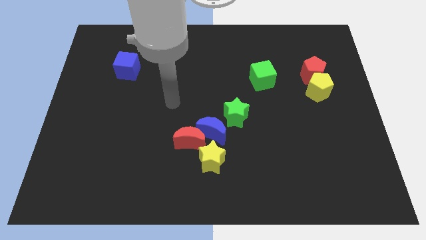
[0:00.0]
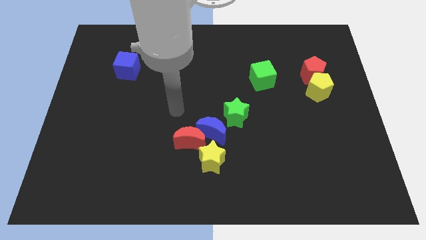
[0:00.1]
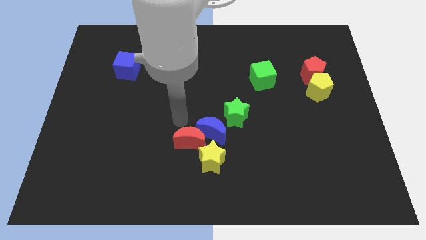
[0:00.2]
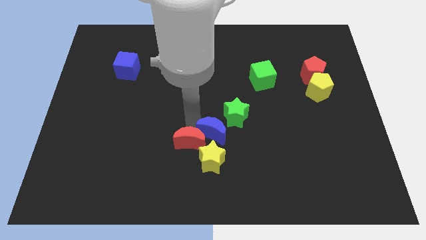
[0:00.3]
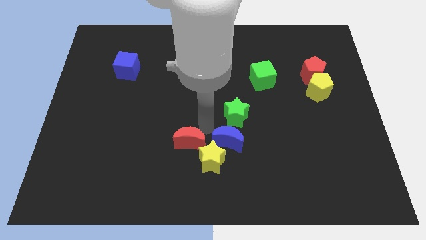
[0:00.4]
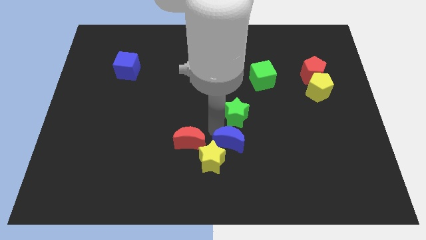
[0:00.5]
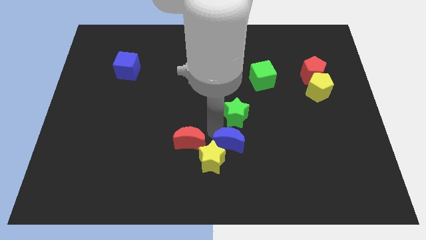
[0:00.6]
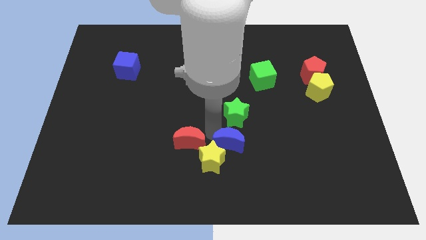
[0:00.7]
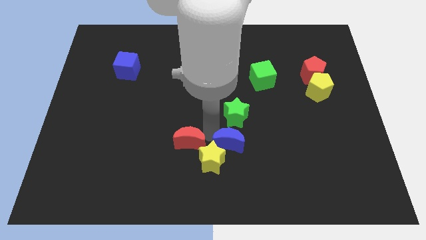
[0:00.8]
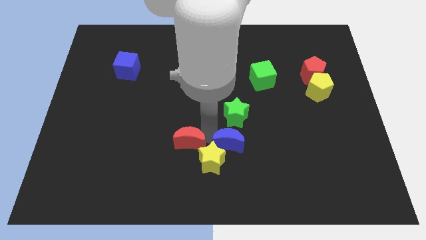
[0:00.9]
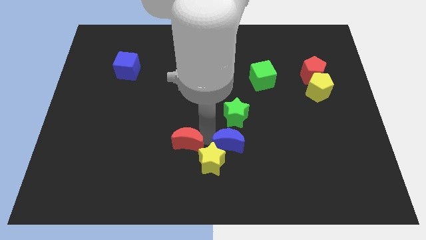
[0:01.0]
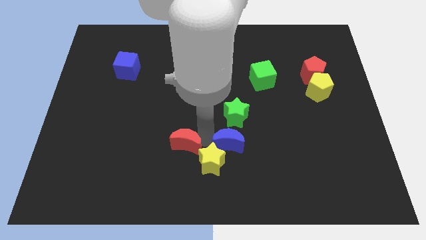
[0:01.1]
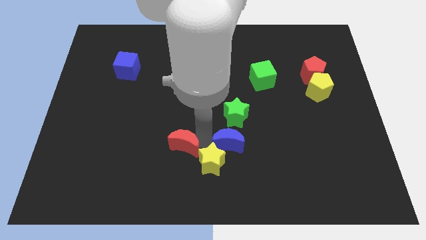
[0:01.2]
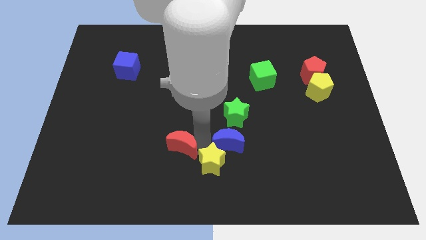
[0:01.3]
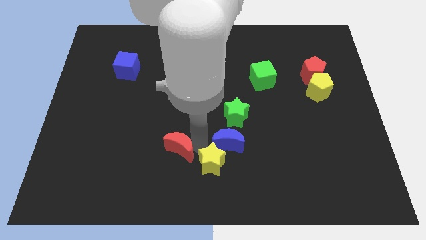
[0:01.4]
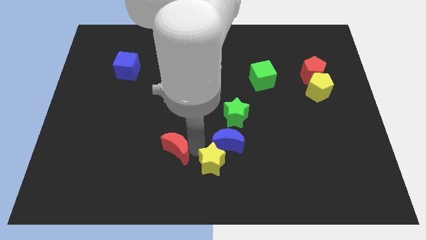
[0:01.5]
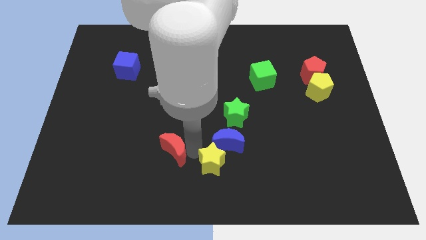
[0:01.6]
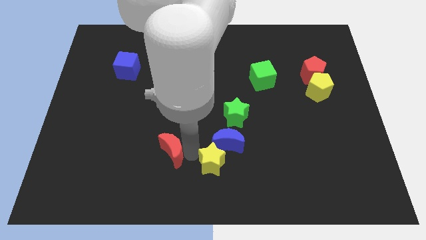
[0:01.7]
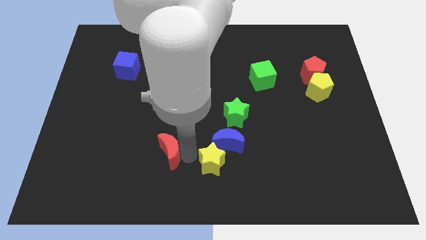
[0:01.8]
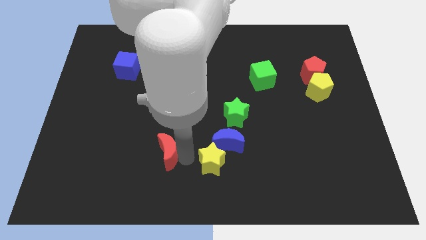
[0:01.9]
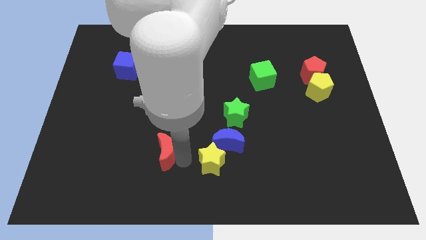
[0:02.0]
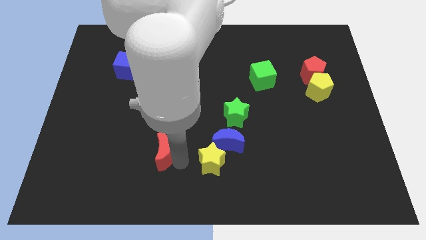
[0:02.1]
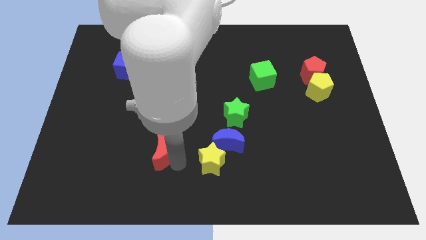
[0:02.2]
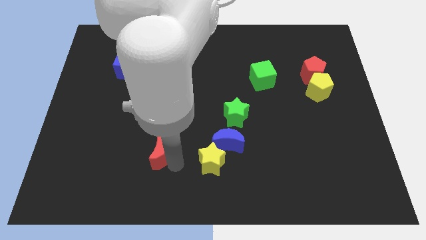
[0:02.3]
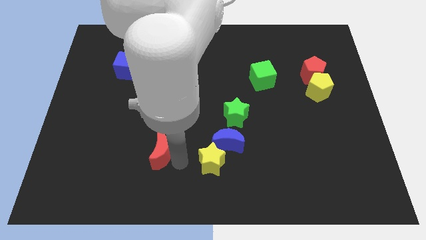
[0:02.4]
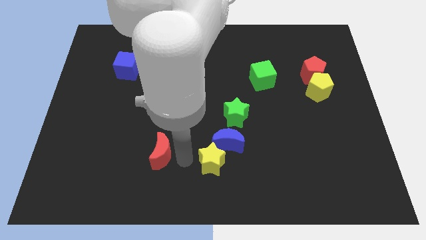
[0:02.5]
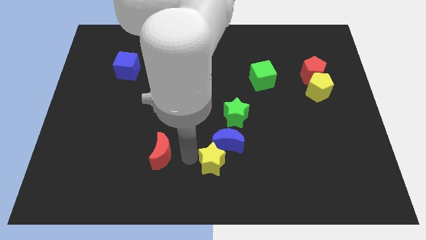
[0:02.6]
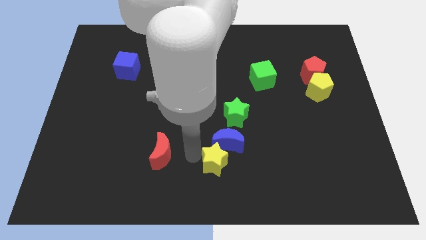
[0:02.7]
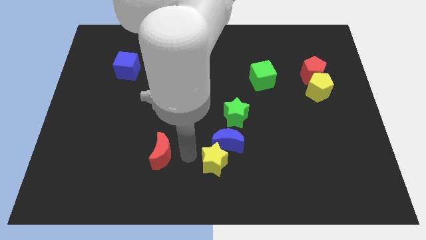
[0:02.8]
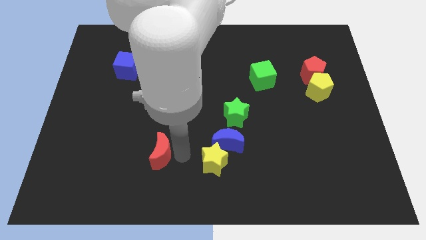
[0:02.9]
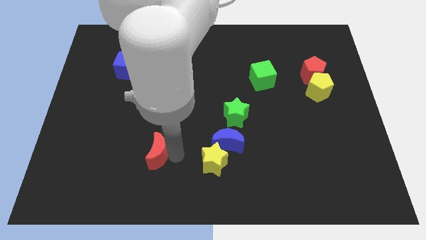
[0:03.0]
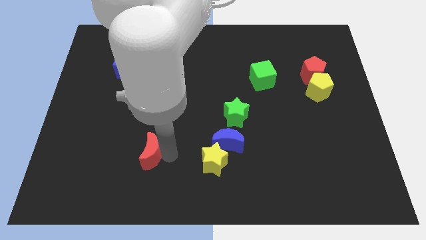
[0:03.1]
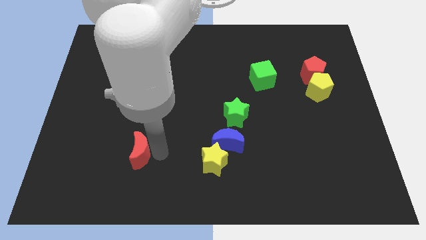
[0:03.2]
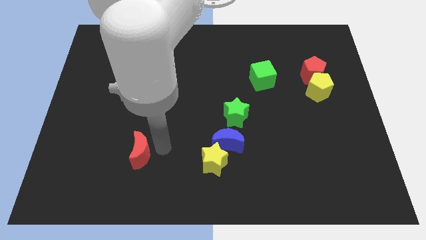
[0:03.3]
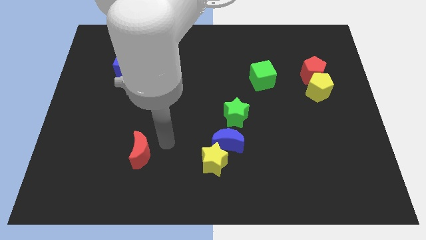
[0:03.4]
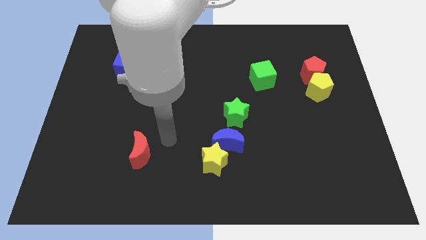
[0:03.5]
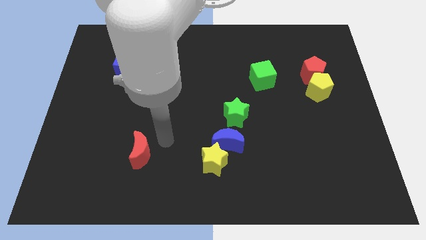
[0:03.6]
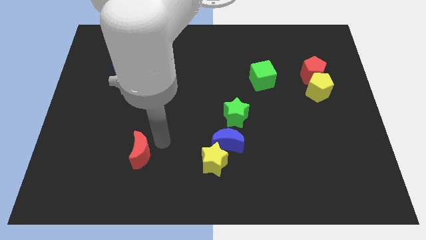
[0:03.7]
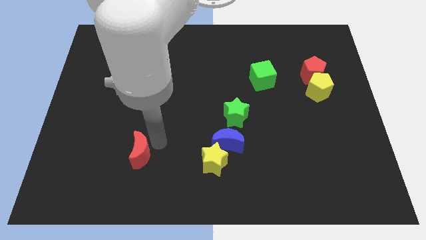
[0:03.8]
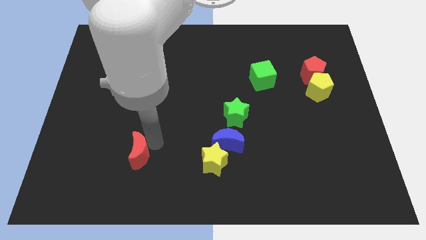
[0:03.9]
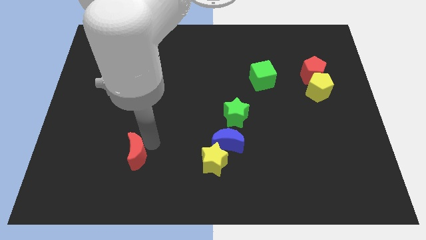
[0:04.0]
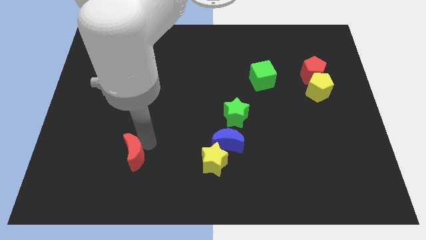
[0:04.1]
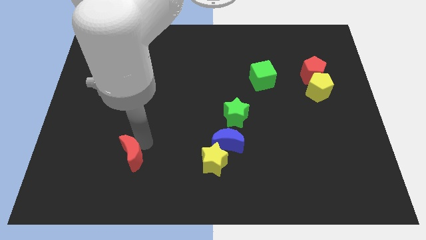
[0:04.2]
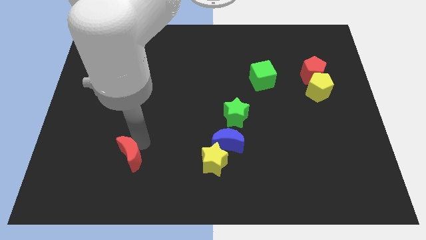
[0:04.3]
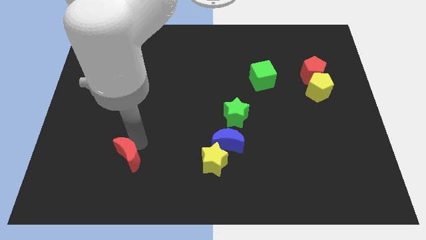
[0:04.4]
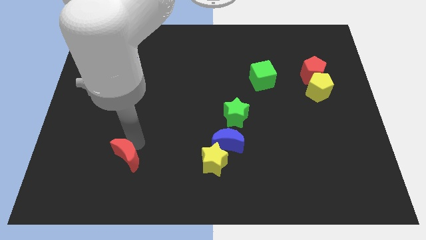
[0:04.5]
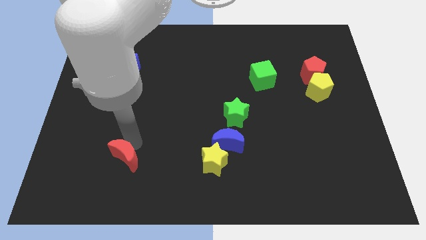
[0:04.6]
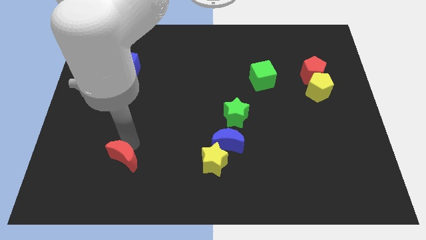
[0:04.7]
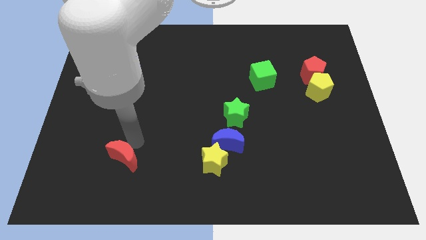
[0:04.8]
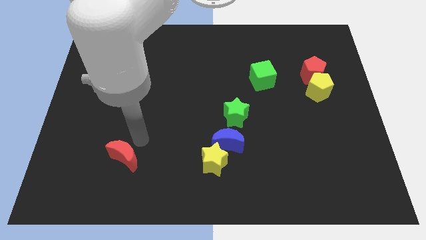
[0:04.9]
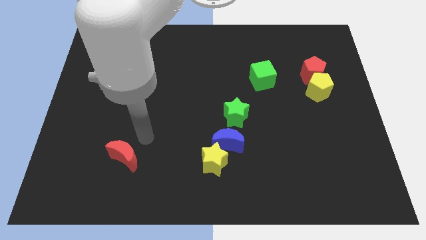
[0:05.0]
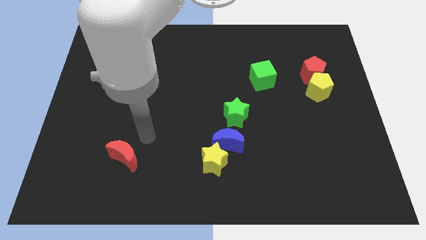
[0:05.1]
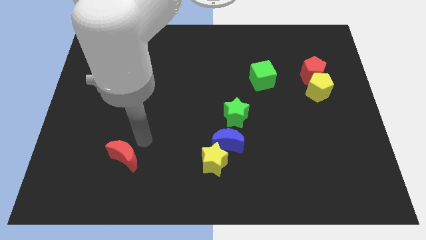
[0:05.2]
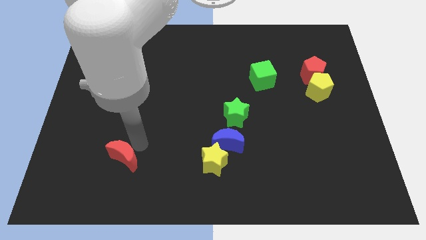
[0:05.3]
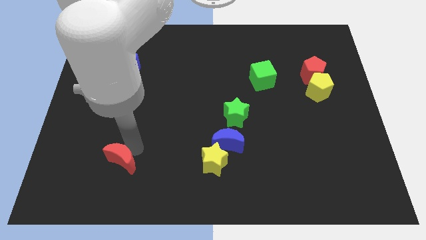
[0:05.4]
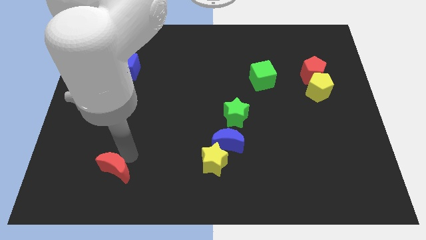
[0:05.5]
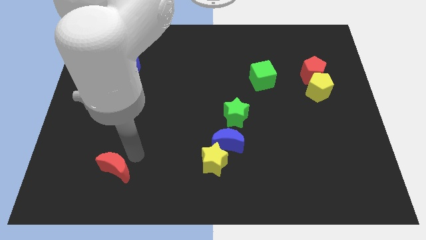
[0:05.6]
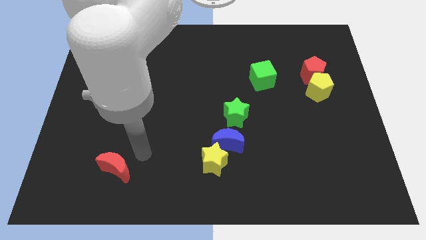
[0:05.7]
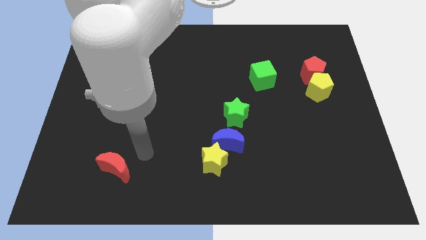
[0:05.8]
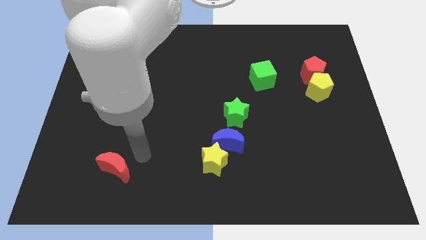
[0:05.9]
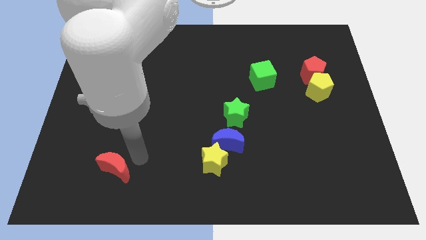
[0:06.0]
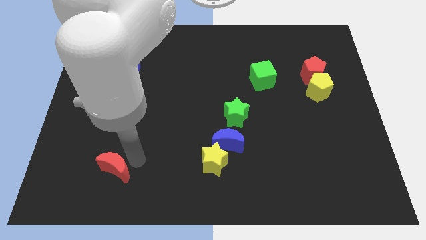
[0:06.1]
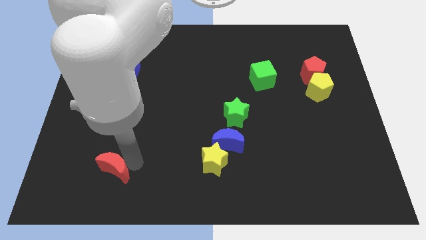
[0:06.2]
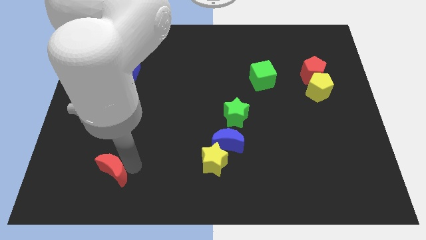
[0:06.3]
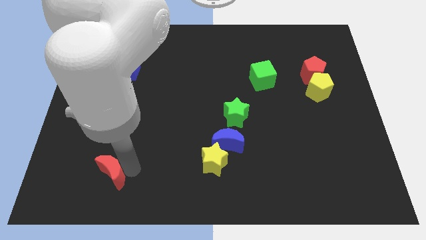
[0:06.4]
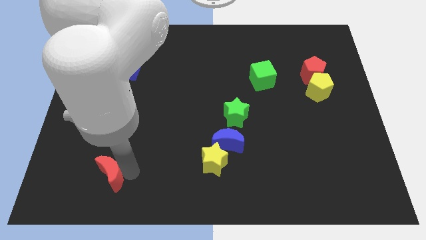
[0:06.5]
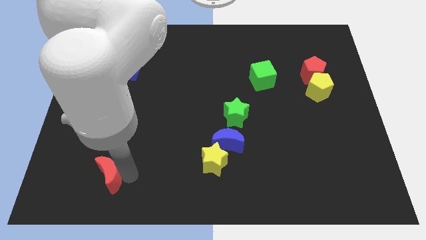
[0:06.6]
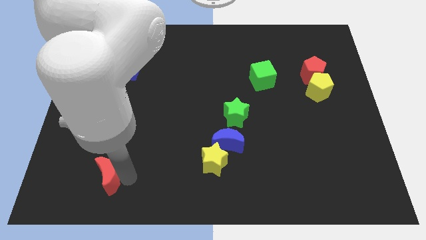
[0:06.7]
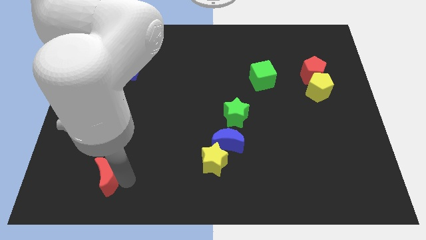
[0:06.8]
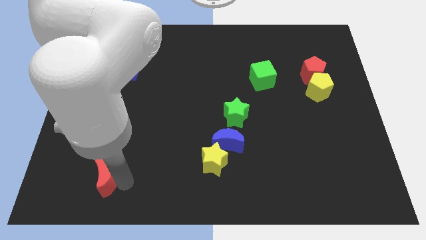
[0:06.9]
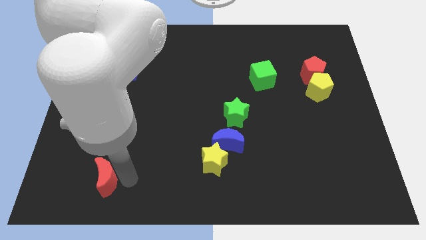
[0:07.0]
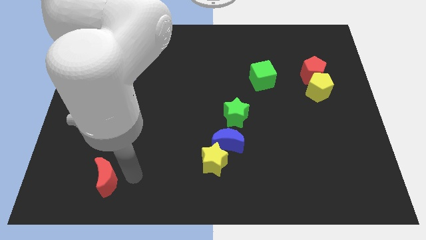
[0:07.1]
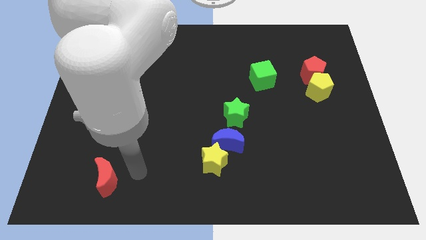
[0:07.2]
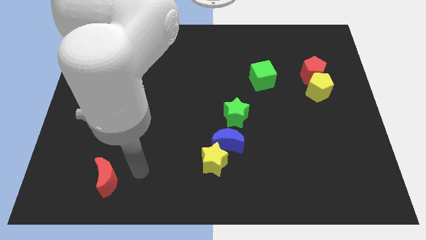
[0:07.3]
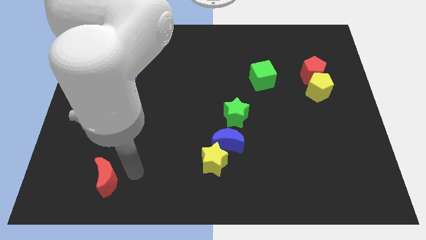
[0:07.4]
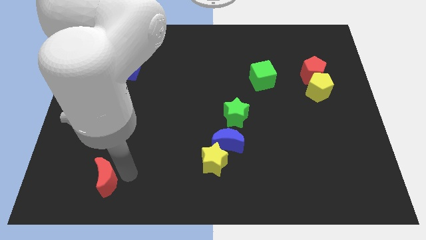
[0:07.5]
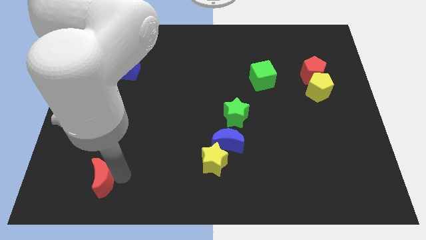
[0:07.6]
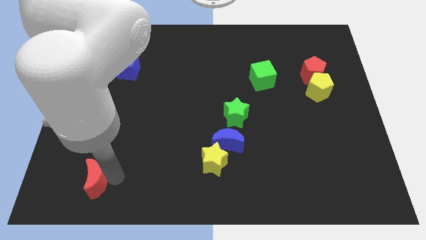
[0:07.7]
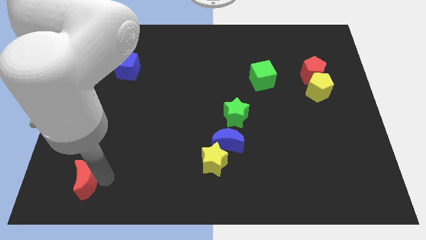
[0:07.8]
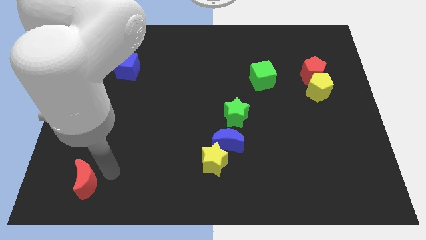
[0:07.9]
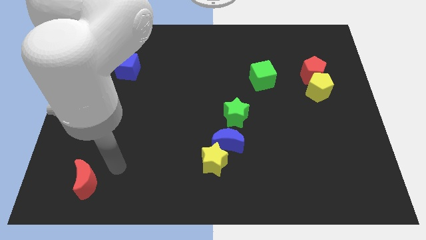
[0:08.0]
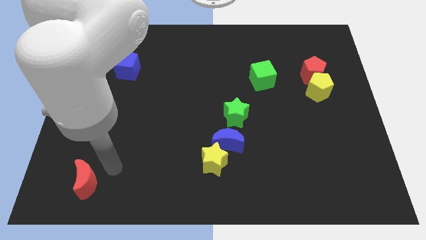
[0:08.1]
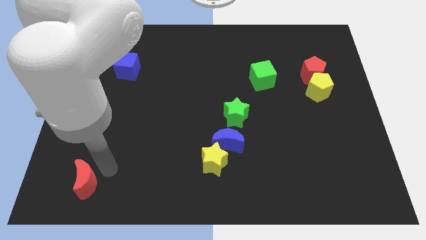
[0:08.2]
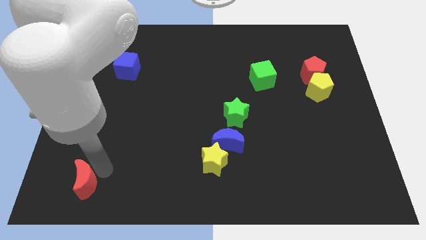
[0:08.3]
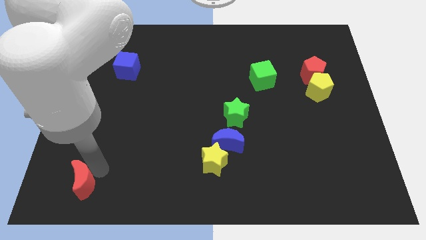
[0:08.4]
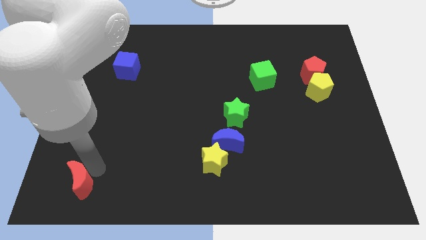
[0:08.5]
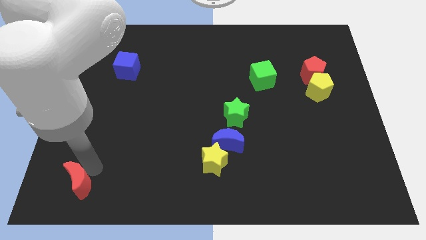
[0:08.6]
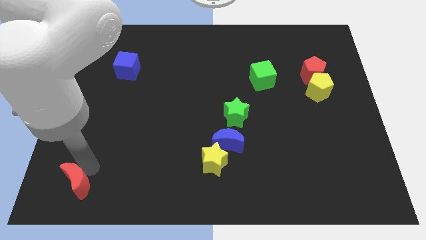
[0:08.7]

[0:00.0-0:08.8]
put the red moon to the bottom left corner
